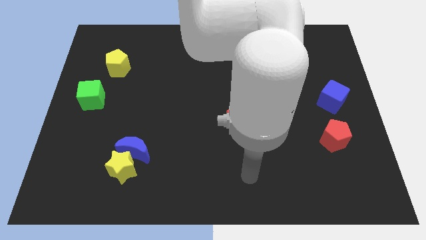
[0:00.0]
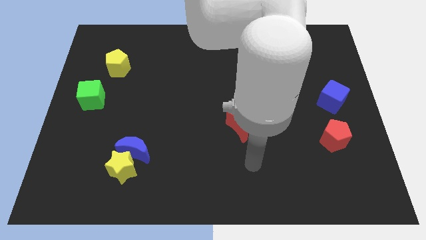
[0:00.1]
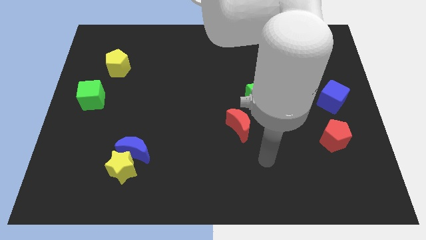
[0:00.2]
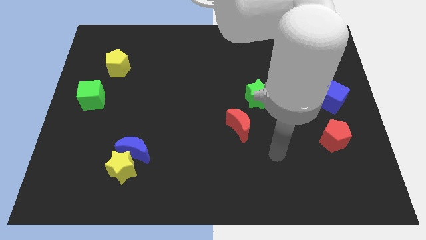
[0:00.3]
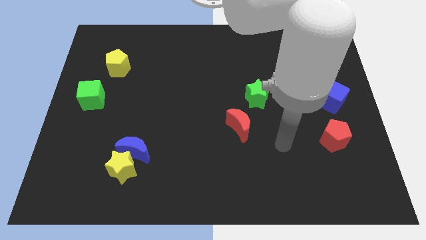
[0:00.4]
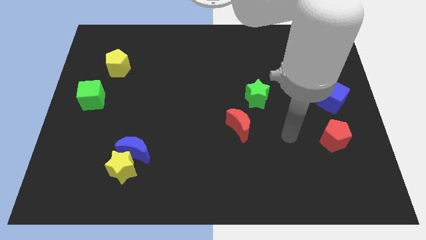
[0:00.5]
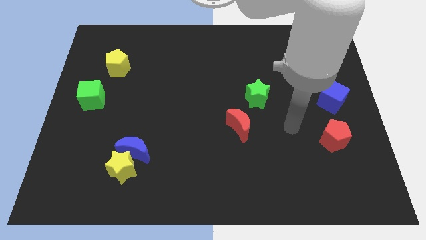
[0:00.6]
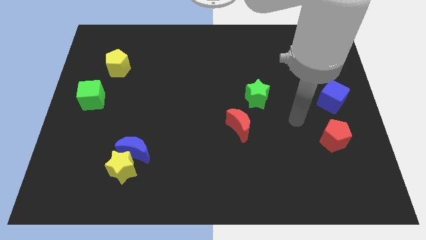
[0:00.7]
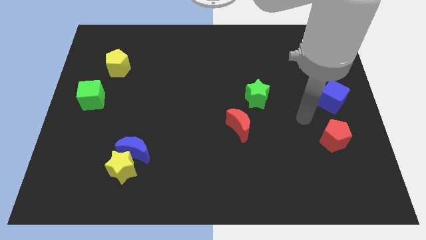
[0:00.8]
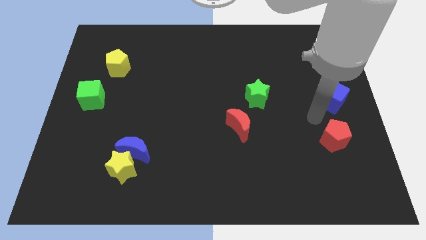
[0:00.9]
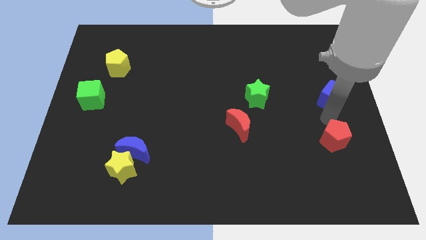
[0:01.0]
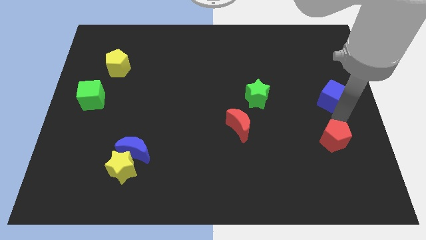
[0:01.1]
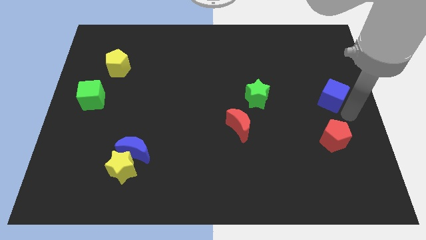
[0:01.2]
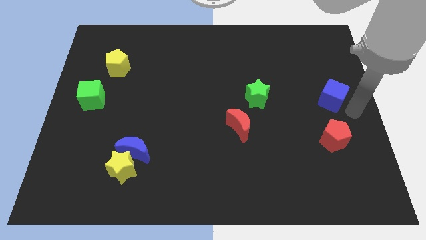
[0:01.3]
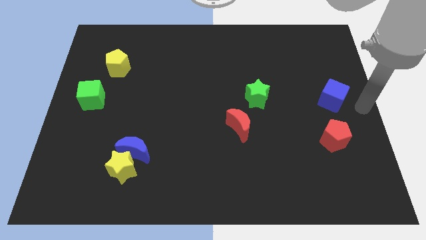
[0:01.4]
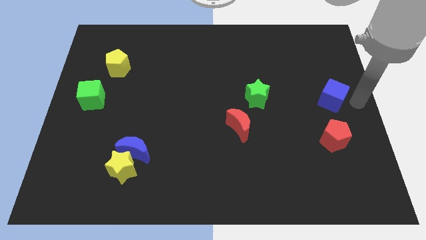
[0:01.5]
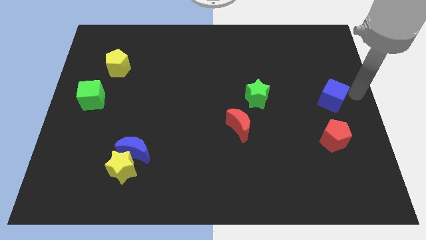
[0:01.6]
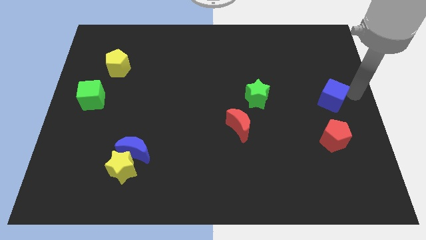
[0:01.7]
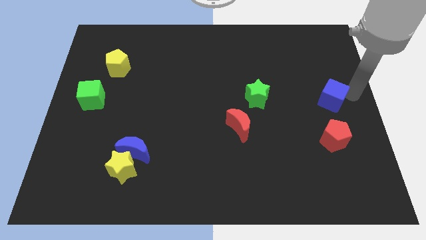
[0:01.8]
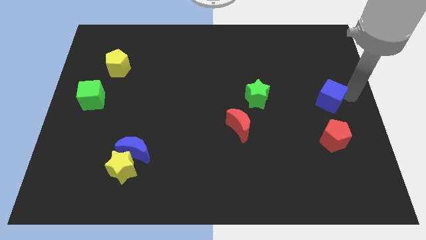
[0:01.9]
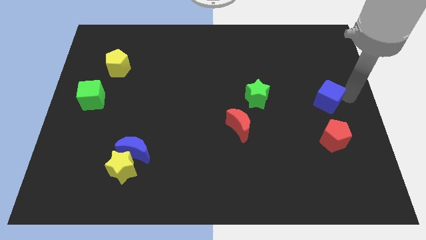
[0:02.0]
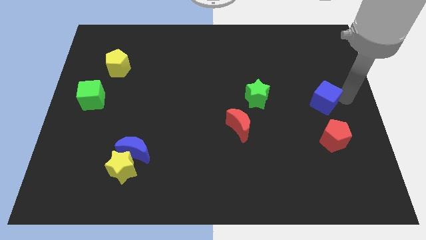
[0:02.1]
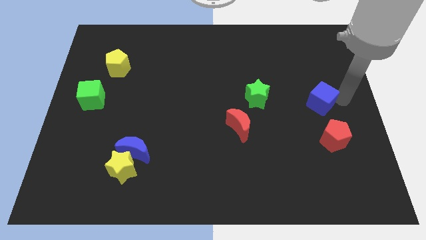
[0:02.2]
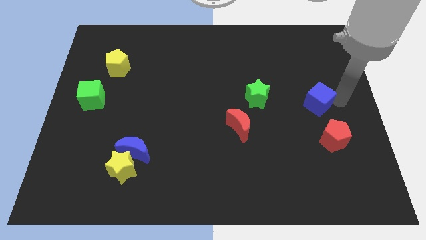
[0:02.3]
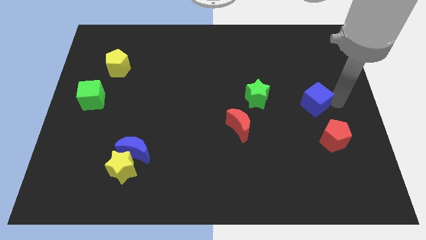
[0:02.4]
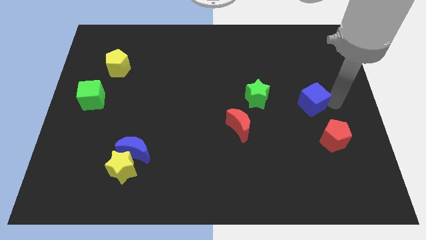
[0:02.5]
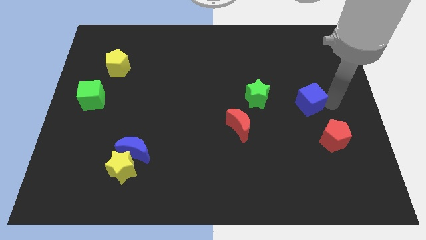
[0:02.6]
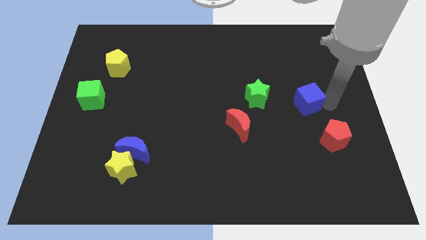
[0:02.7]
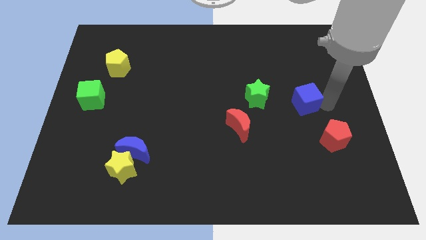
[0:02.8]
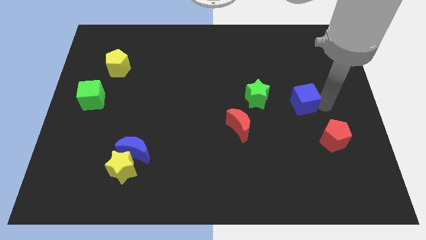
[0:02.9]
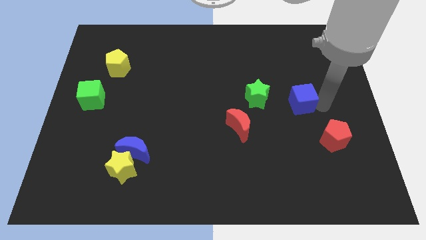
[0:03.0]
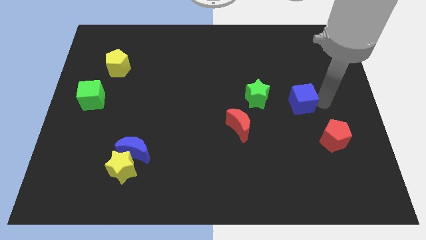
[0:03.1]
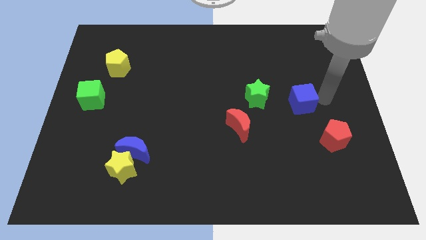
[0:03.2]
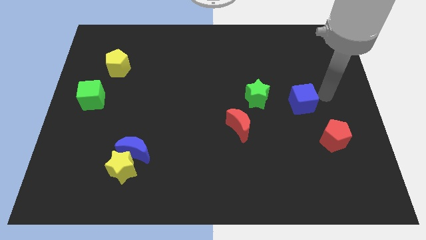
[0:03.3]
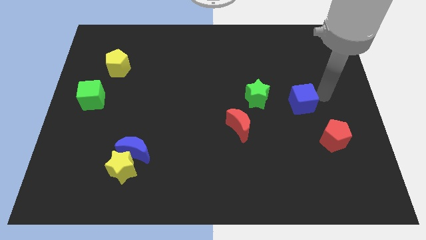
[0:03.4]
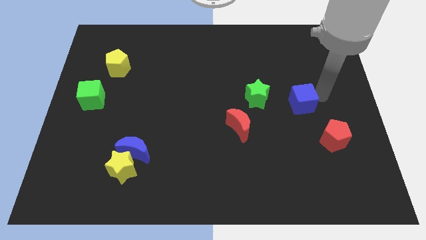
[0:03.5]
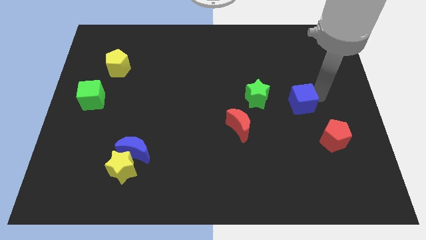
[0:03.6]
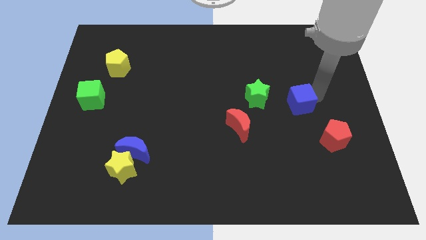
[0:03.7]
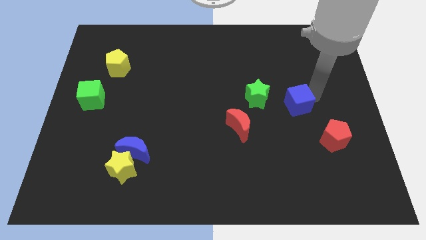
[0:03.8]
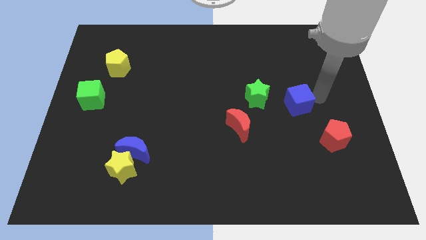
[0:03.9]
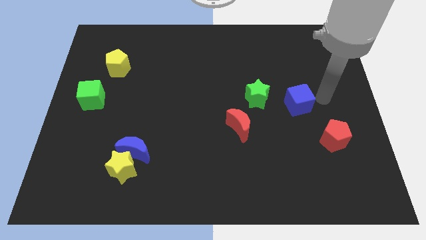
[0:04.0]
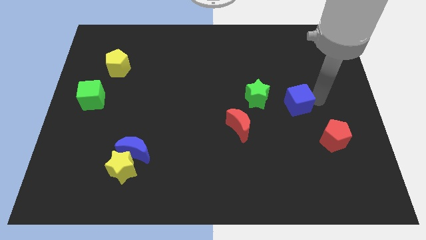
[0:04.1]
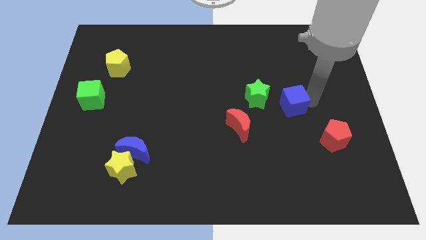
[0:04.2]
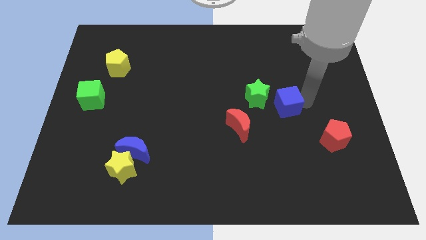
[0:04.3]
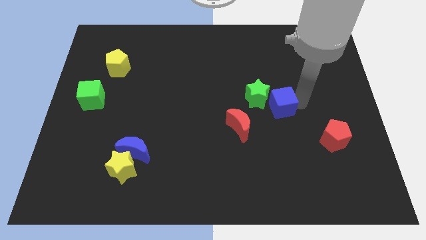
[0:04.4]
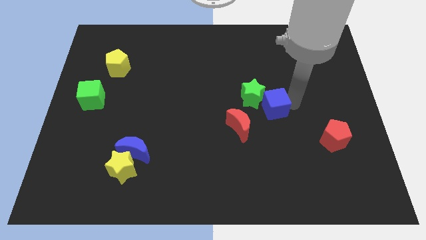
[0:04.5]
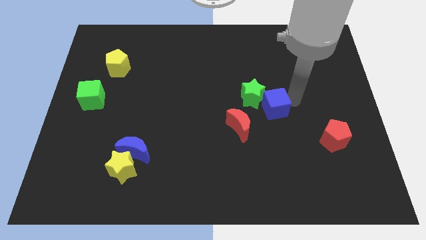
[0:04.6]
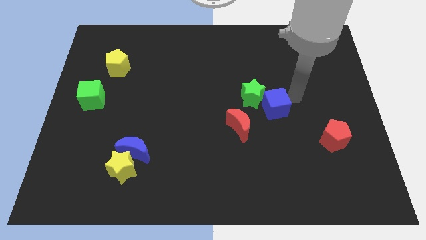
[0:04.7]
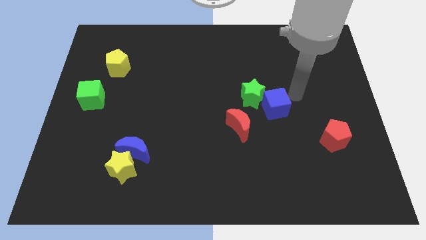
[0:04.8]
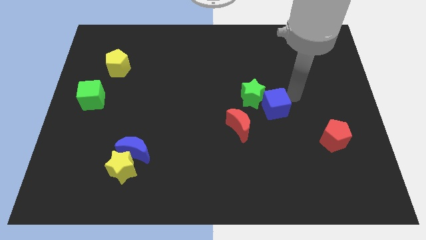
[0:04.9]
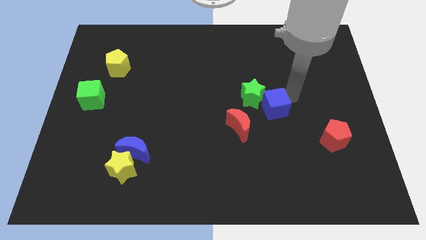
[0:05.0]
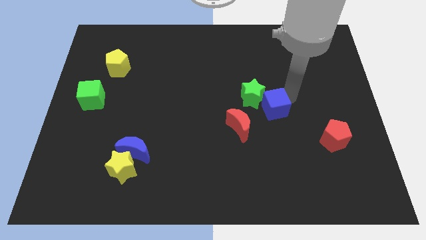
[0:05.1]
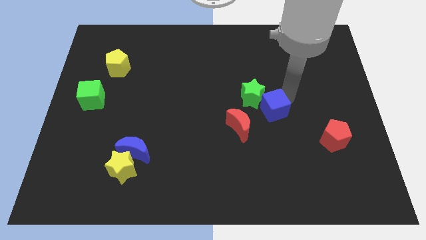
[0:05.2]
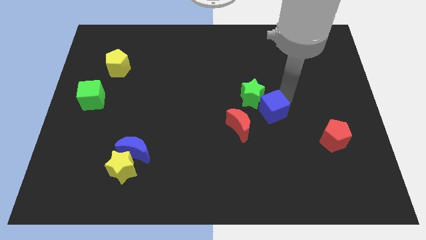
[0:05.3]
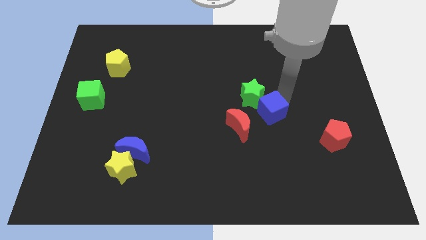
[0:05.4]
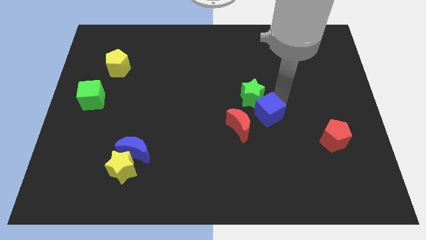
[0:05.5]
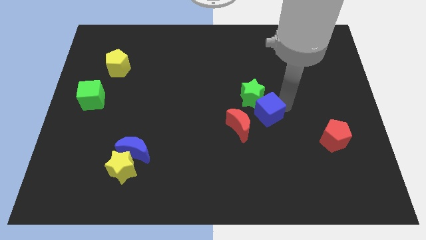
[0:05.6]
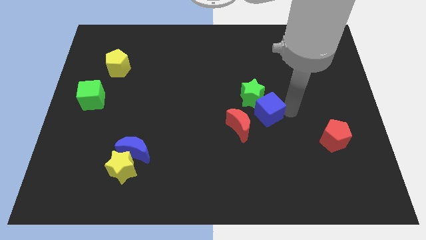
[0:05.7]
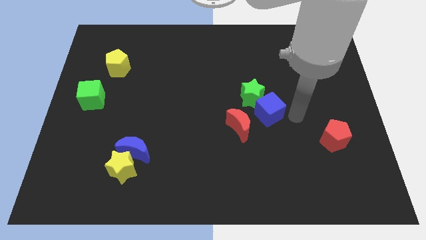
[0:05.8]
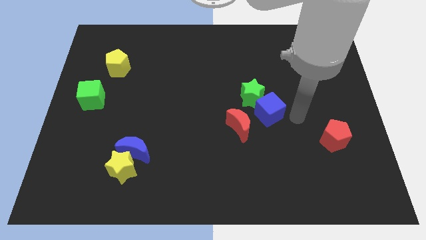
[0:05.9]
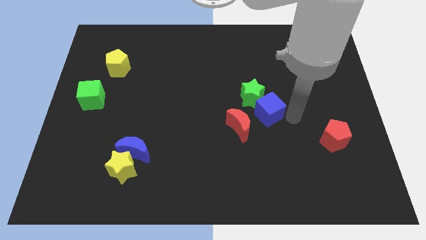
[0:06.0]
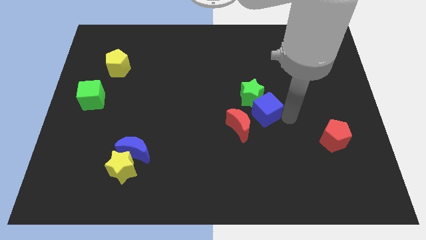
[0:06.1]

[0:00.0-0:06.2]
put the blue cube to the middle of the board

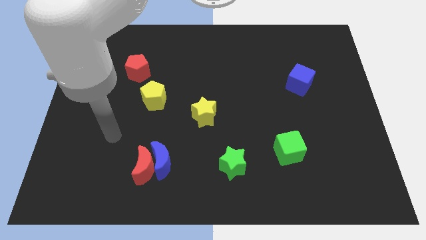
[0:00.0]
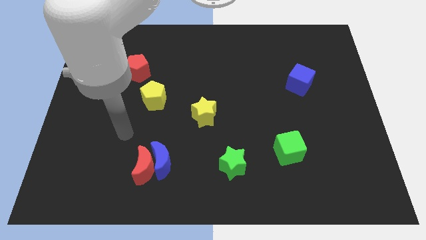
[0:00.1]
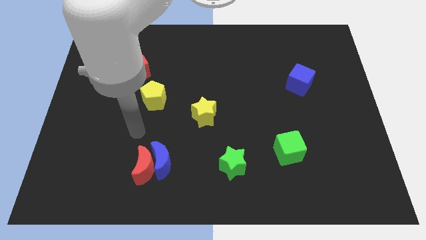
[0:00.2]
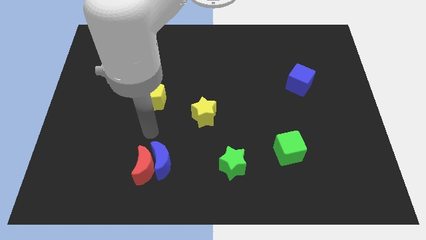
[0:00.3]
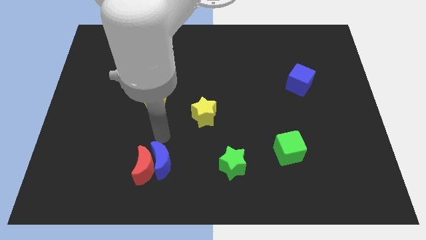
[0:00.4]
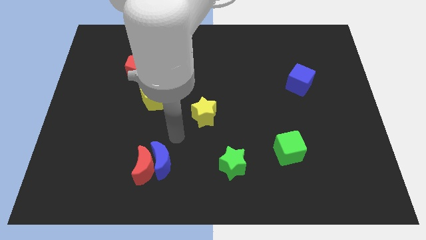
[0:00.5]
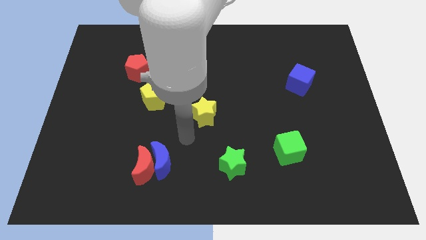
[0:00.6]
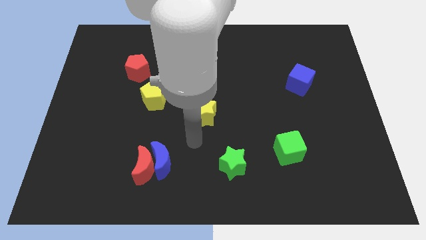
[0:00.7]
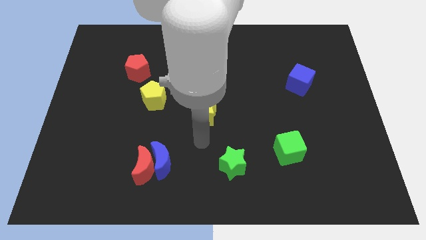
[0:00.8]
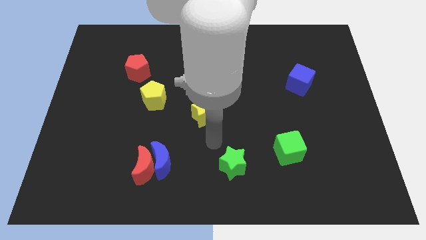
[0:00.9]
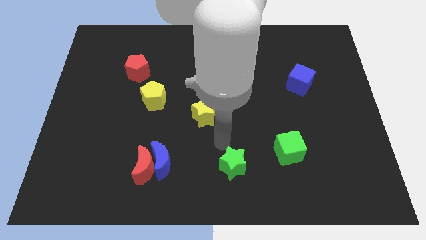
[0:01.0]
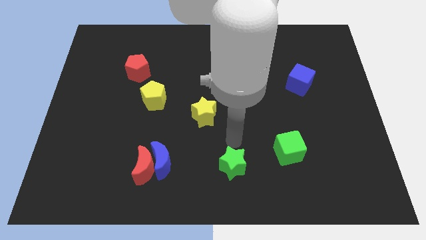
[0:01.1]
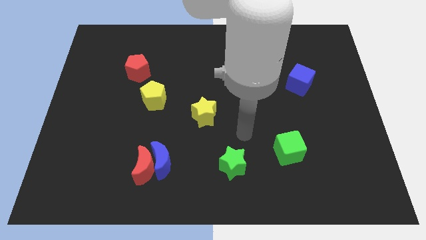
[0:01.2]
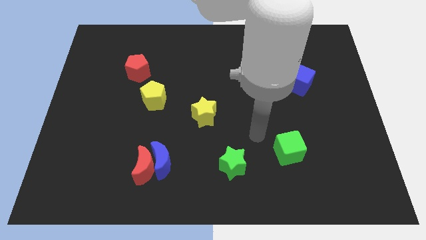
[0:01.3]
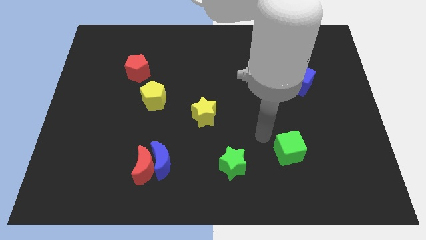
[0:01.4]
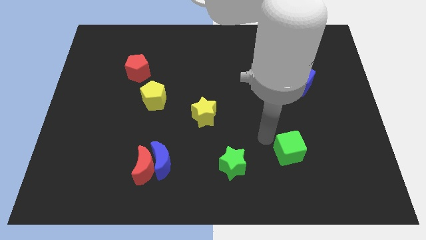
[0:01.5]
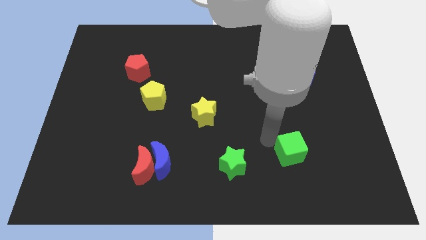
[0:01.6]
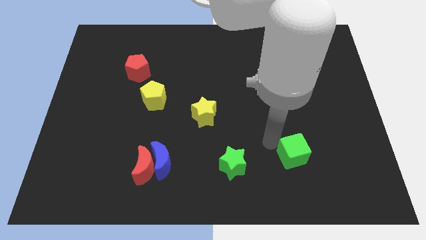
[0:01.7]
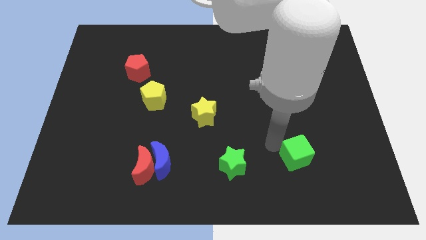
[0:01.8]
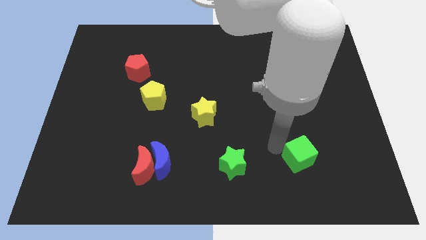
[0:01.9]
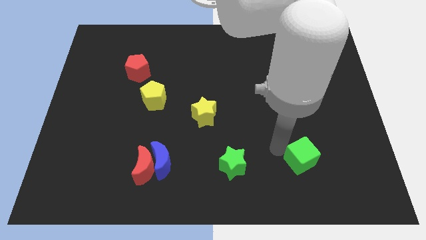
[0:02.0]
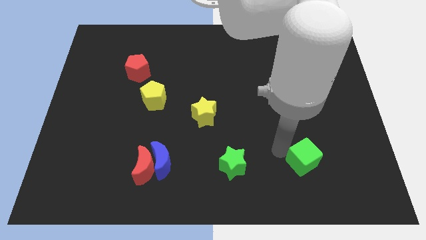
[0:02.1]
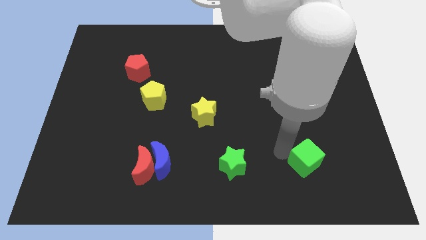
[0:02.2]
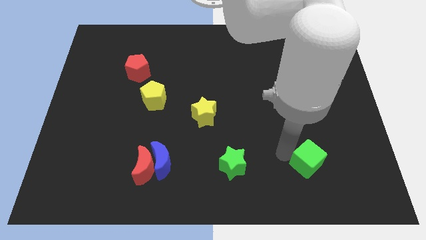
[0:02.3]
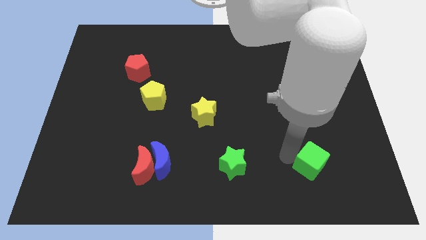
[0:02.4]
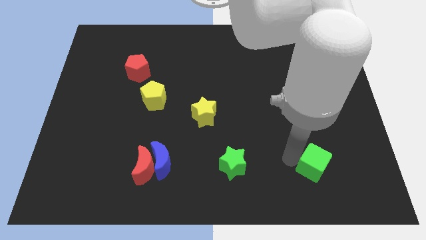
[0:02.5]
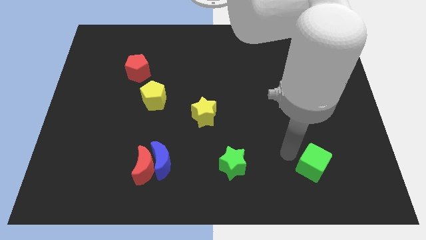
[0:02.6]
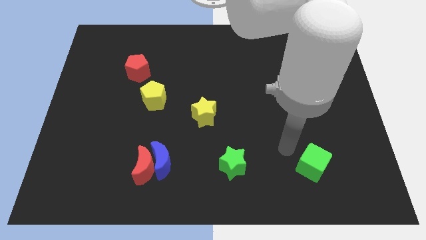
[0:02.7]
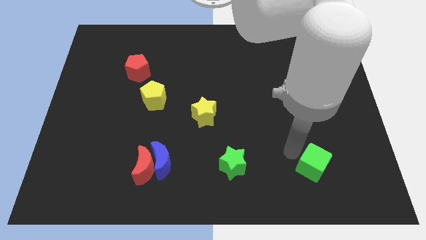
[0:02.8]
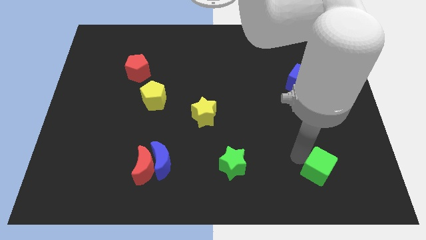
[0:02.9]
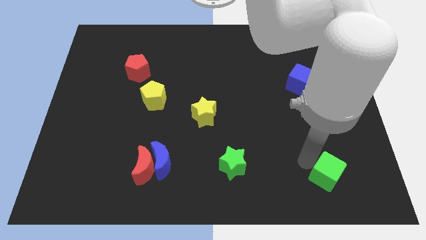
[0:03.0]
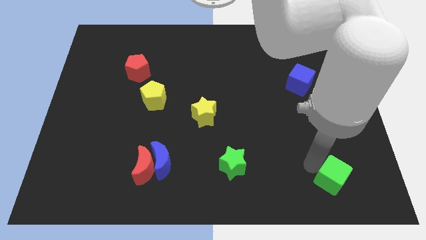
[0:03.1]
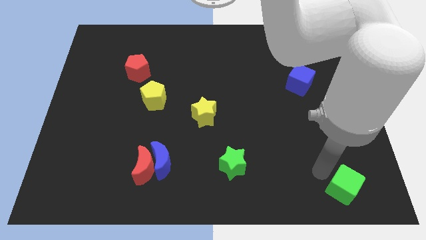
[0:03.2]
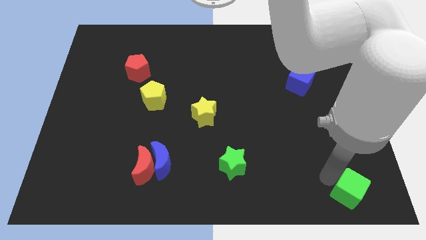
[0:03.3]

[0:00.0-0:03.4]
move the green cube to the bottom right
